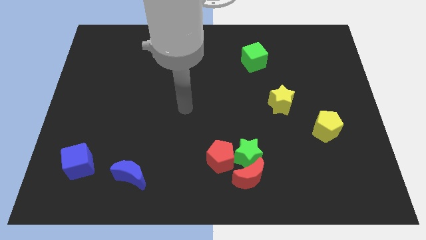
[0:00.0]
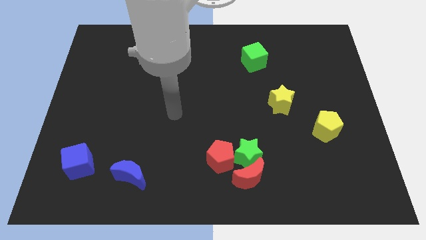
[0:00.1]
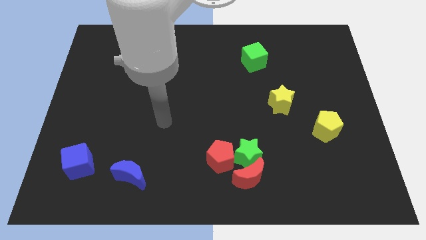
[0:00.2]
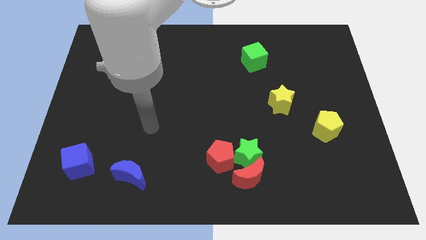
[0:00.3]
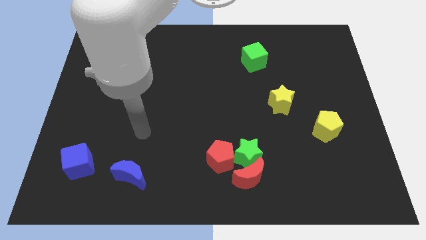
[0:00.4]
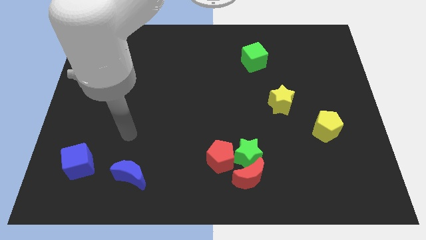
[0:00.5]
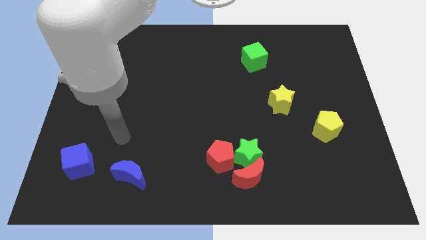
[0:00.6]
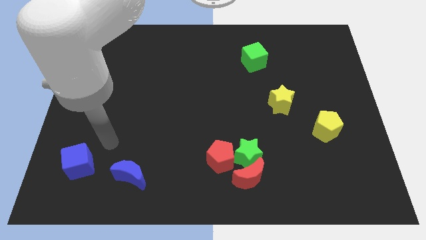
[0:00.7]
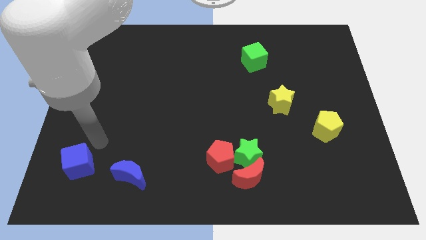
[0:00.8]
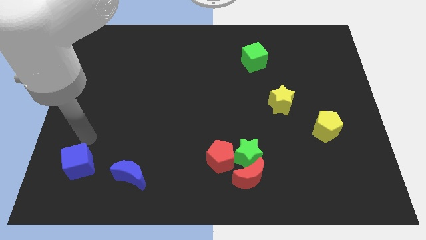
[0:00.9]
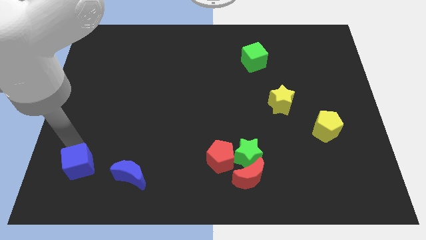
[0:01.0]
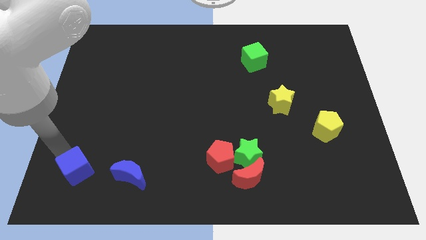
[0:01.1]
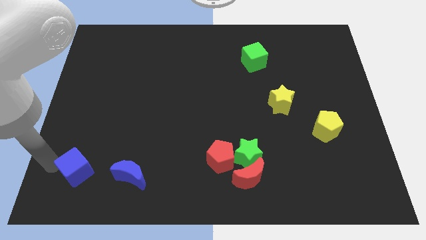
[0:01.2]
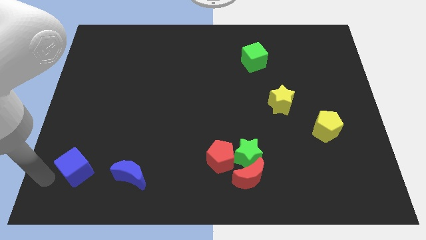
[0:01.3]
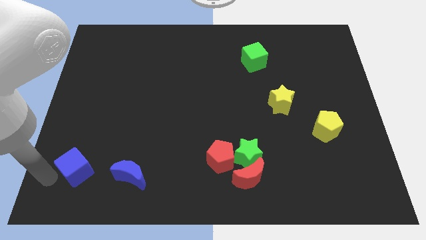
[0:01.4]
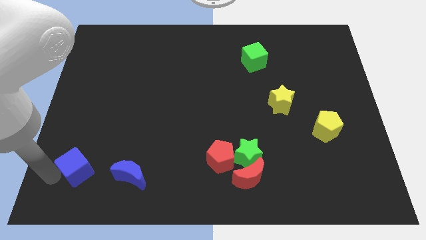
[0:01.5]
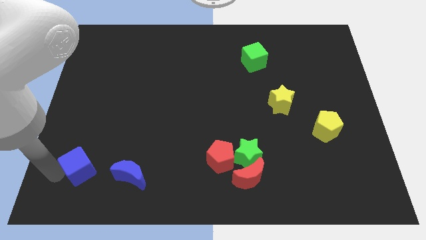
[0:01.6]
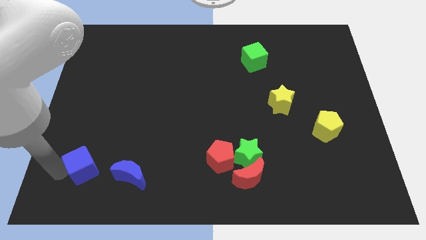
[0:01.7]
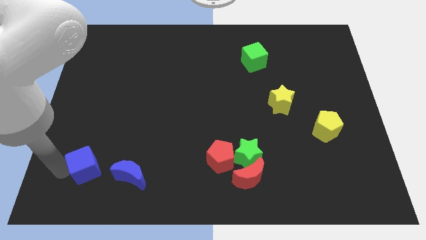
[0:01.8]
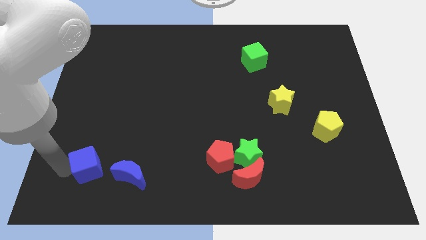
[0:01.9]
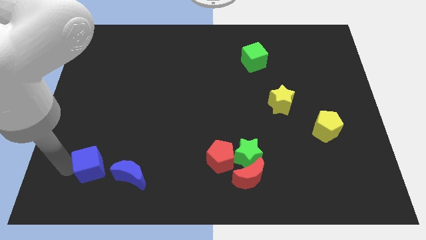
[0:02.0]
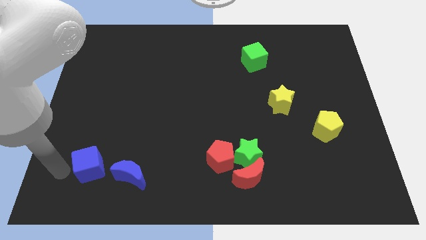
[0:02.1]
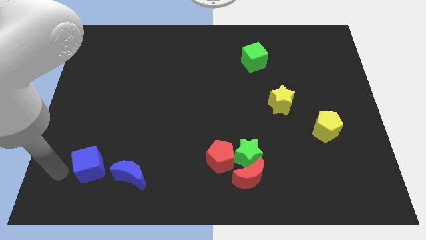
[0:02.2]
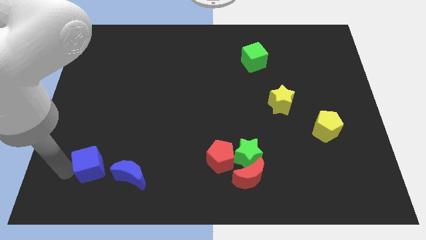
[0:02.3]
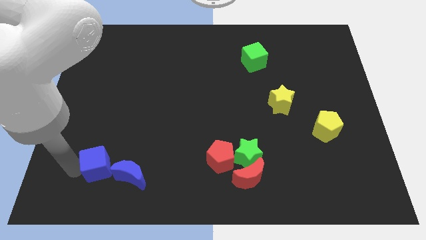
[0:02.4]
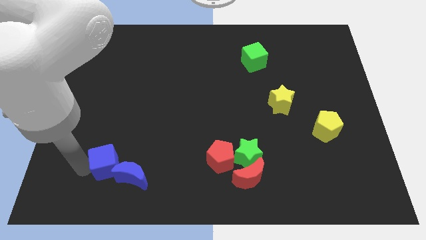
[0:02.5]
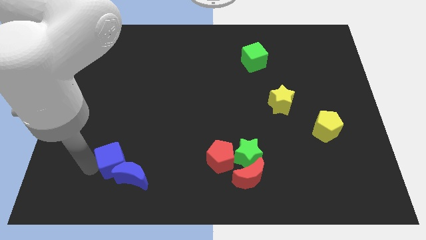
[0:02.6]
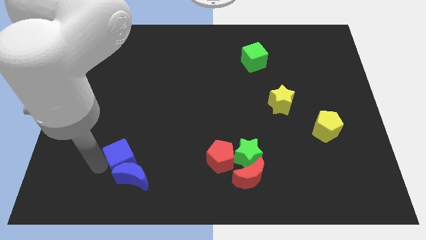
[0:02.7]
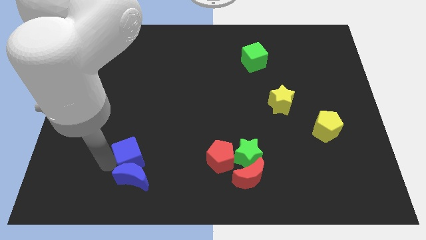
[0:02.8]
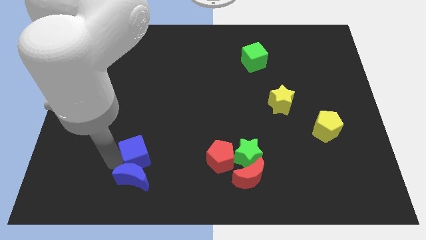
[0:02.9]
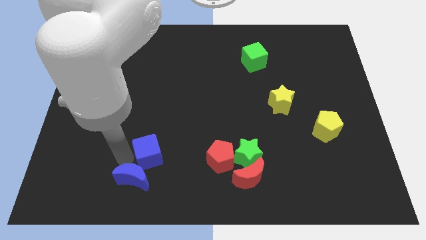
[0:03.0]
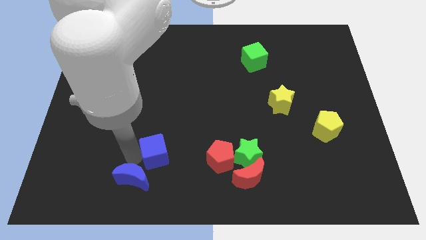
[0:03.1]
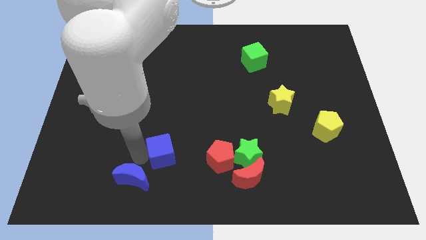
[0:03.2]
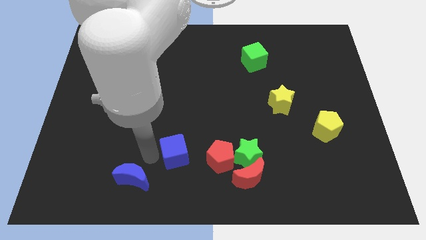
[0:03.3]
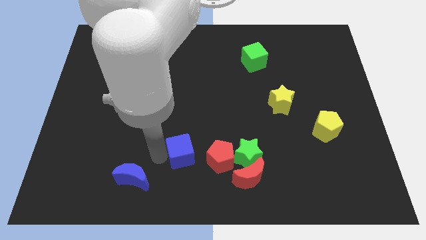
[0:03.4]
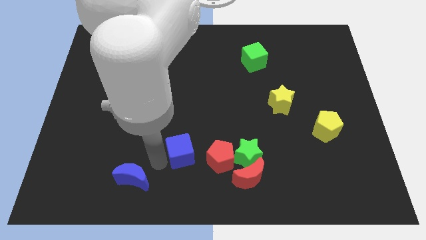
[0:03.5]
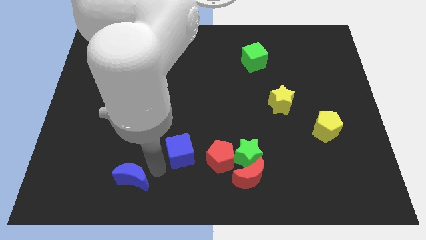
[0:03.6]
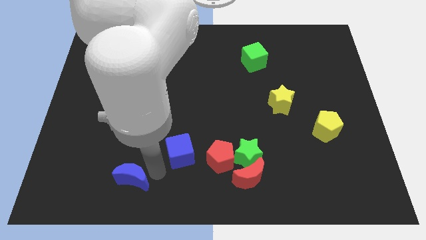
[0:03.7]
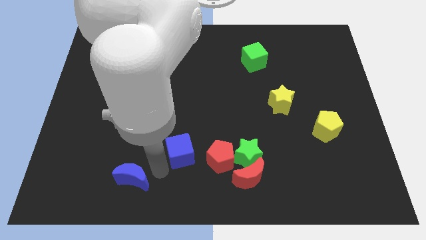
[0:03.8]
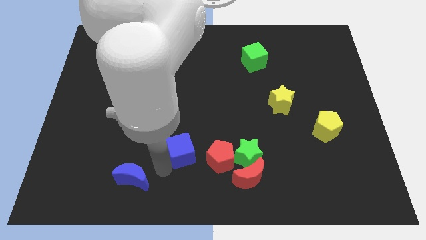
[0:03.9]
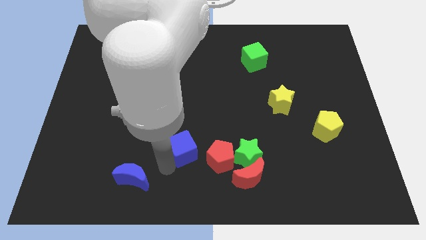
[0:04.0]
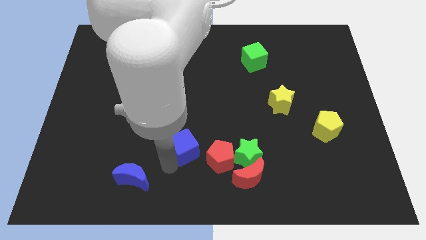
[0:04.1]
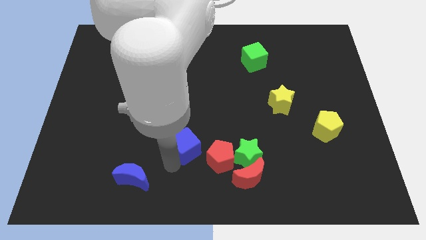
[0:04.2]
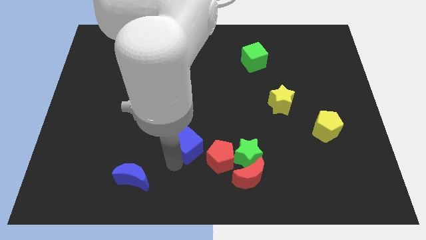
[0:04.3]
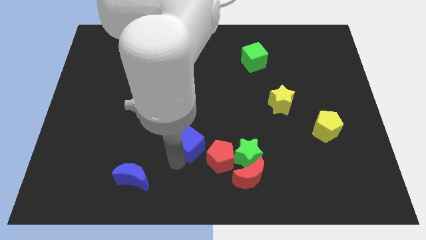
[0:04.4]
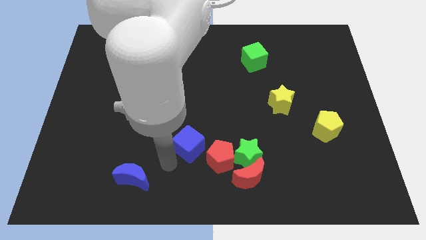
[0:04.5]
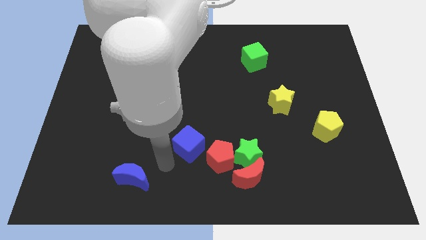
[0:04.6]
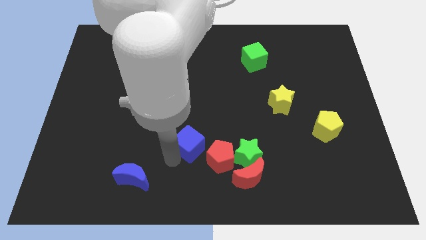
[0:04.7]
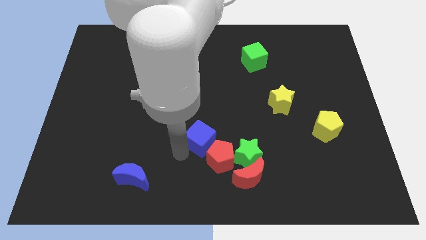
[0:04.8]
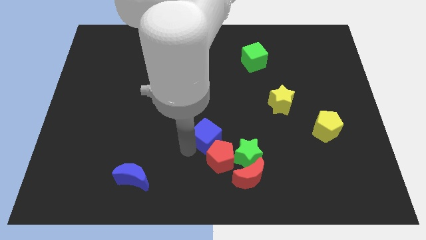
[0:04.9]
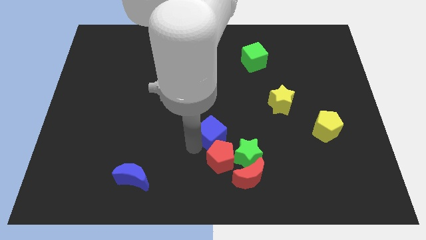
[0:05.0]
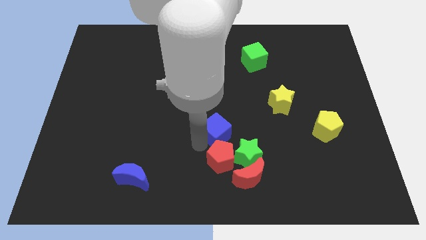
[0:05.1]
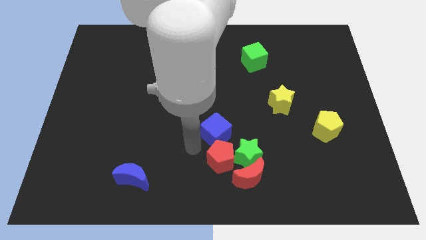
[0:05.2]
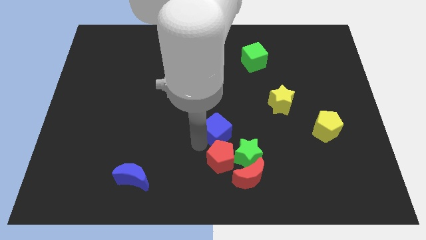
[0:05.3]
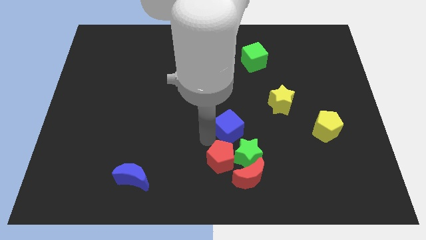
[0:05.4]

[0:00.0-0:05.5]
push the blue cube to the top side of the green star
